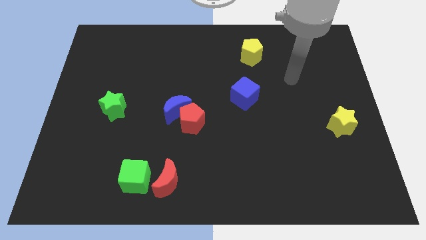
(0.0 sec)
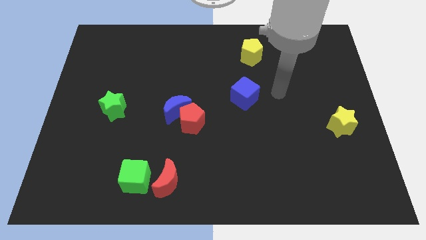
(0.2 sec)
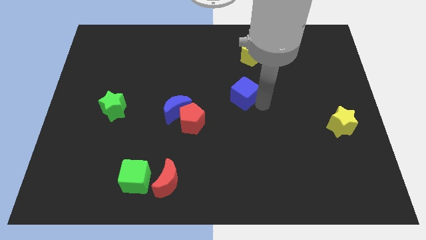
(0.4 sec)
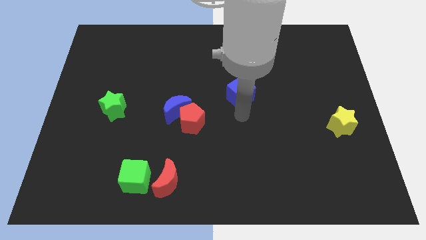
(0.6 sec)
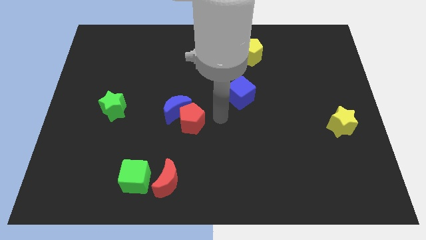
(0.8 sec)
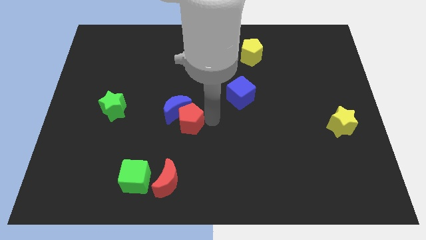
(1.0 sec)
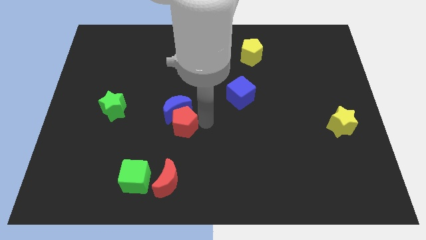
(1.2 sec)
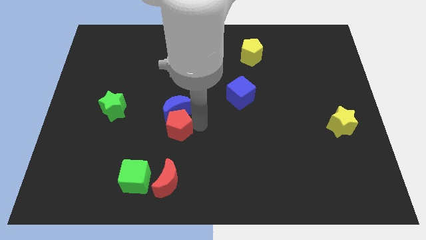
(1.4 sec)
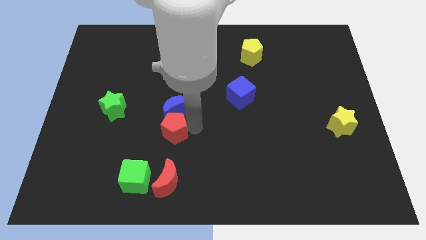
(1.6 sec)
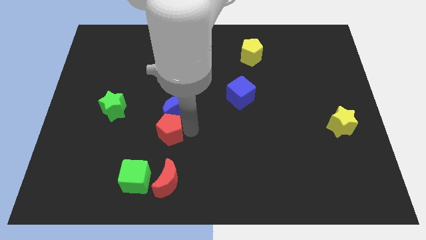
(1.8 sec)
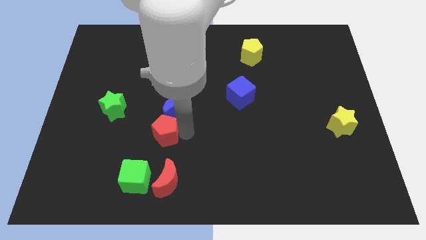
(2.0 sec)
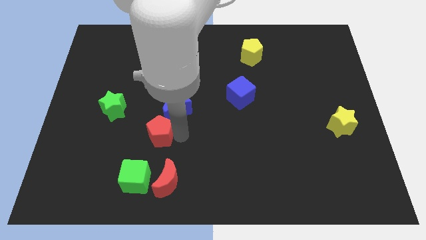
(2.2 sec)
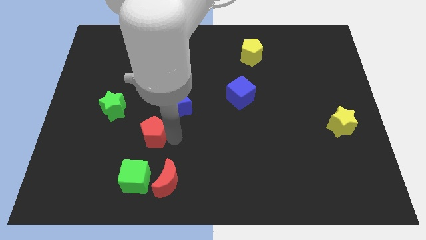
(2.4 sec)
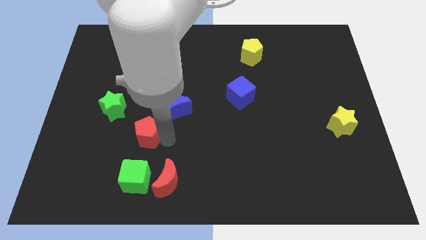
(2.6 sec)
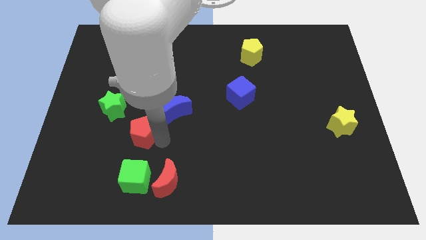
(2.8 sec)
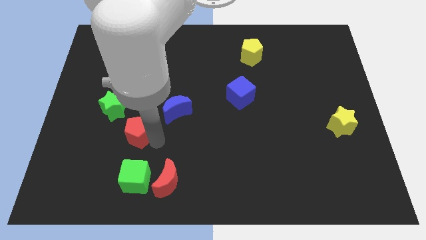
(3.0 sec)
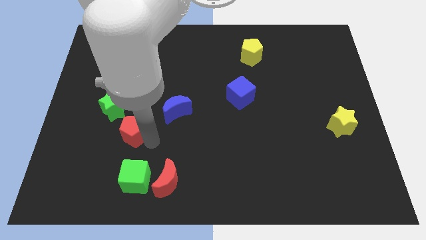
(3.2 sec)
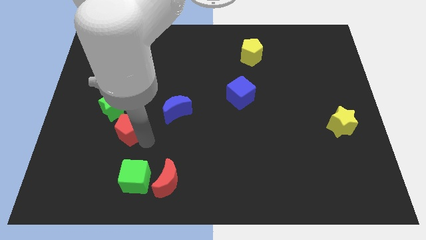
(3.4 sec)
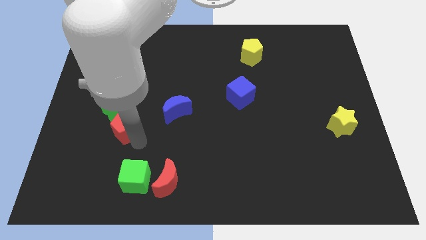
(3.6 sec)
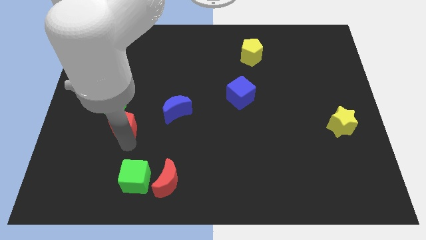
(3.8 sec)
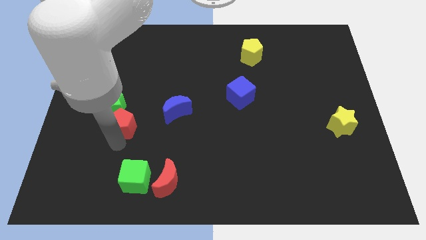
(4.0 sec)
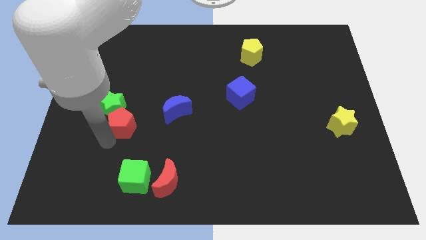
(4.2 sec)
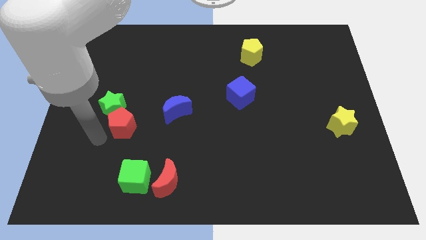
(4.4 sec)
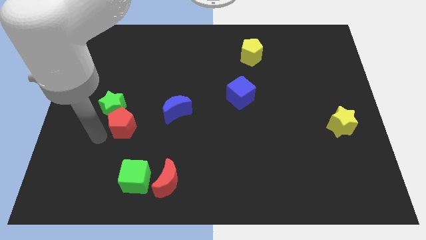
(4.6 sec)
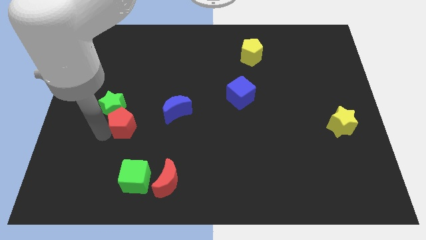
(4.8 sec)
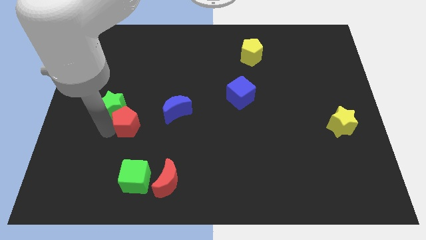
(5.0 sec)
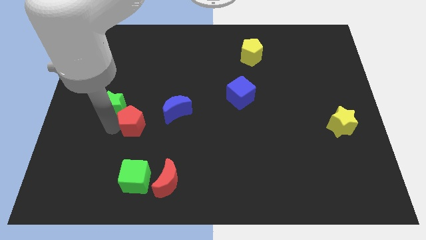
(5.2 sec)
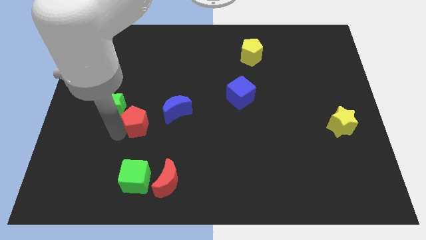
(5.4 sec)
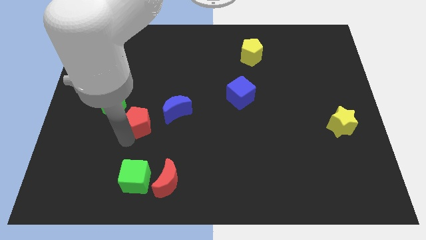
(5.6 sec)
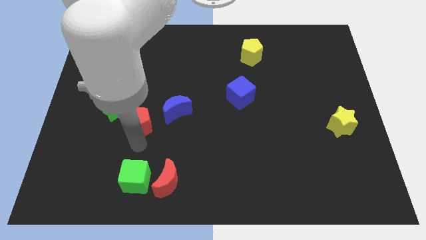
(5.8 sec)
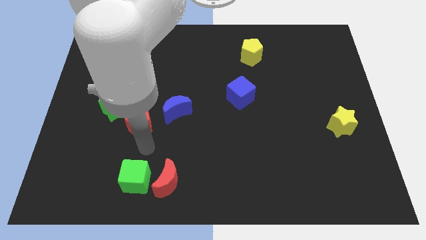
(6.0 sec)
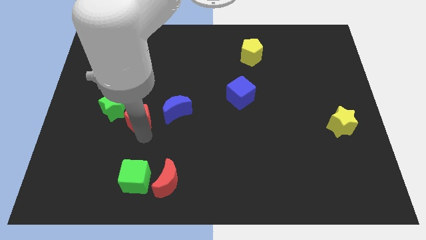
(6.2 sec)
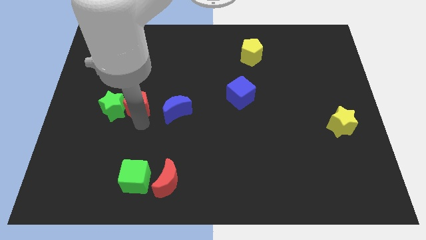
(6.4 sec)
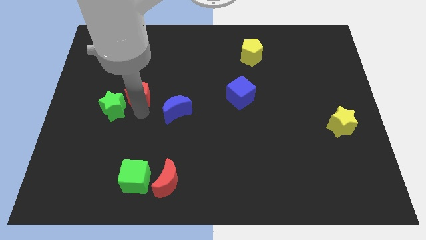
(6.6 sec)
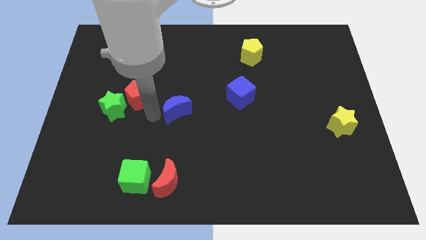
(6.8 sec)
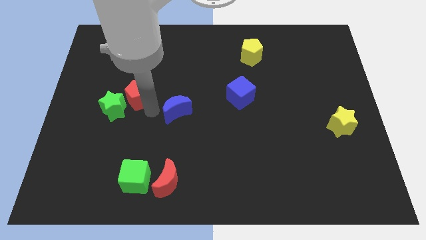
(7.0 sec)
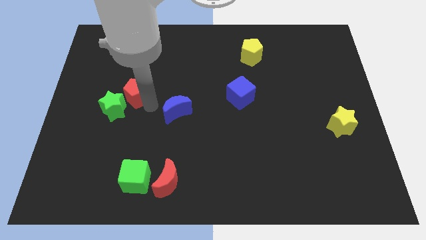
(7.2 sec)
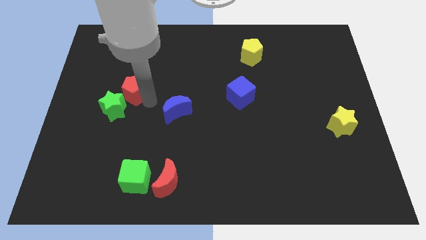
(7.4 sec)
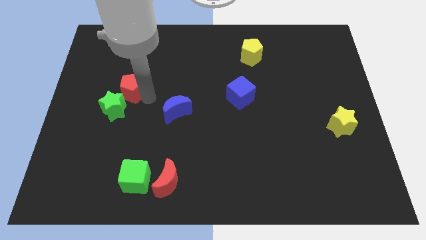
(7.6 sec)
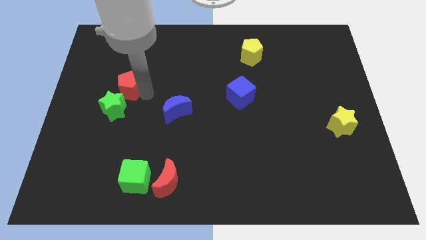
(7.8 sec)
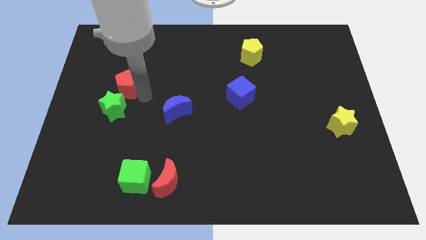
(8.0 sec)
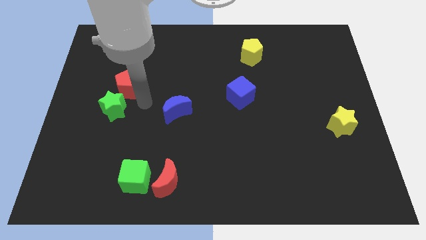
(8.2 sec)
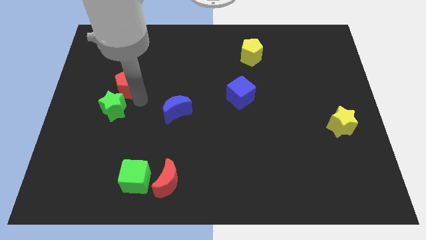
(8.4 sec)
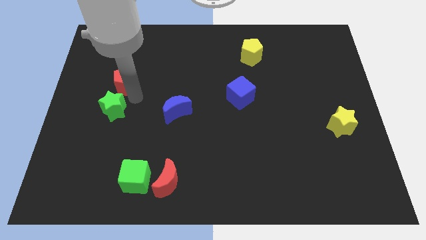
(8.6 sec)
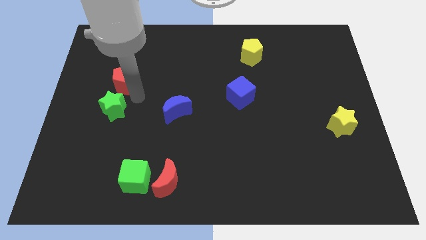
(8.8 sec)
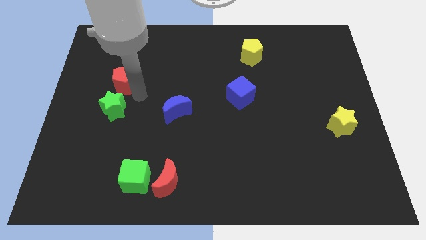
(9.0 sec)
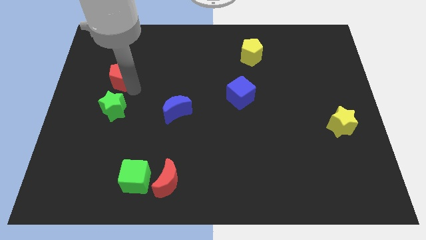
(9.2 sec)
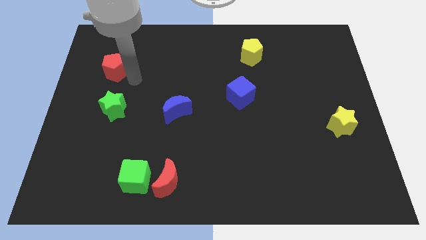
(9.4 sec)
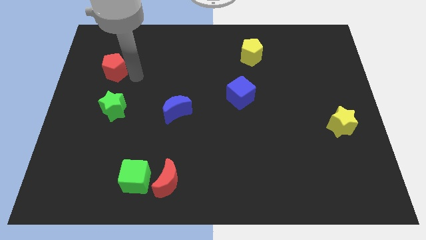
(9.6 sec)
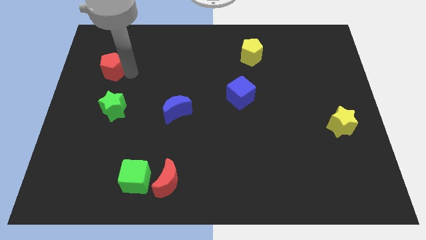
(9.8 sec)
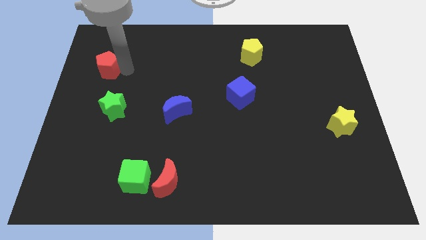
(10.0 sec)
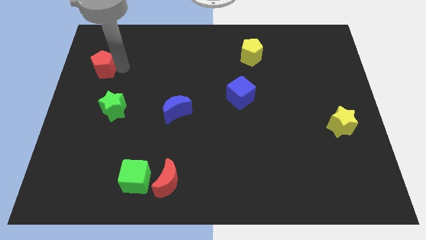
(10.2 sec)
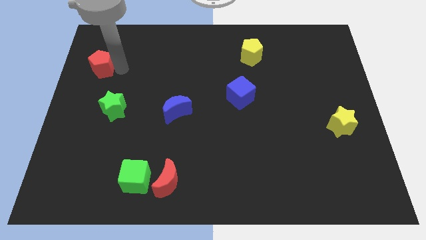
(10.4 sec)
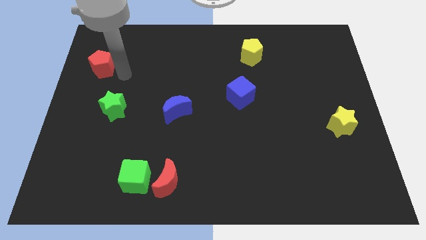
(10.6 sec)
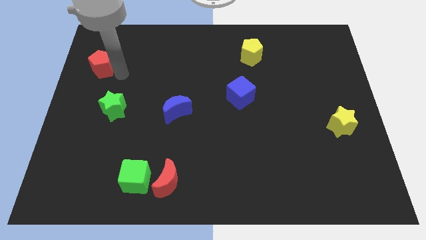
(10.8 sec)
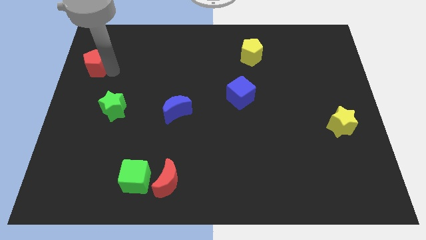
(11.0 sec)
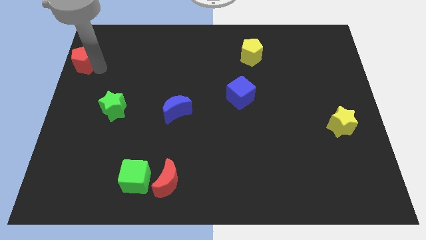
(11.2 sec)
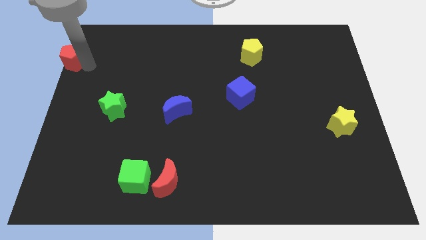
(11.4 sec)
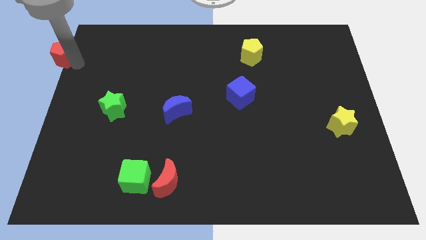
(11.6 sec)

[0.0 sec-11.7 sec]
move the red pentagon to the top left of the board

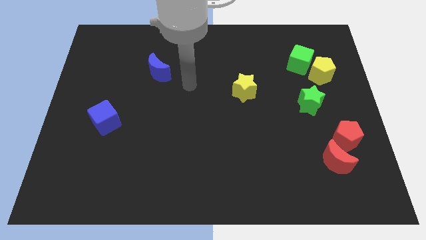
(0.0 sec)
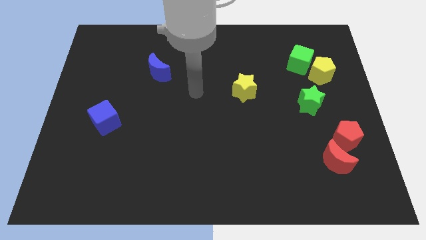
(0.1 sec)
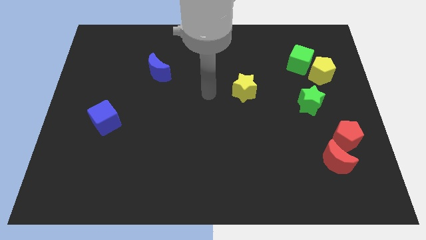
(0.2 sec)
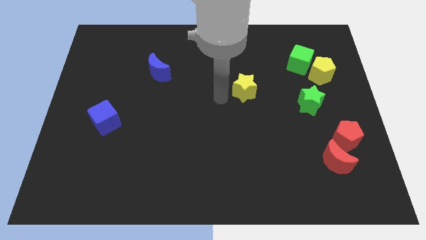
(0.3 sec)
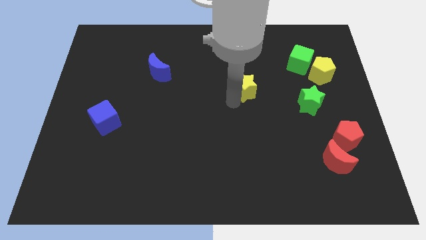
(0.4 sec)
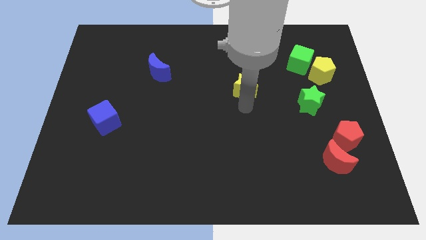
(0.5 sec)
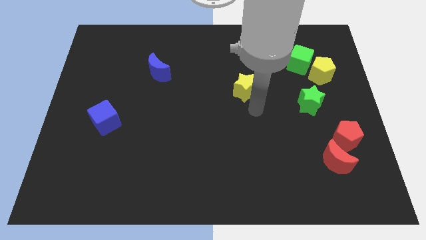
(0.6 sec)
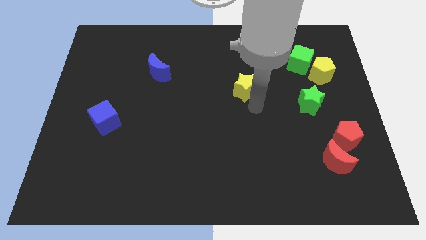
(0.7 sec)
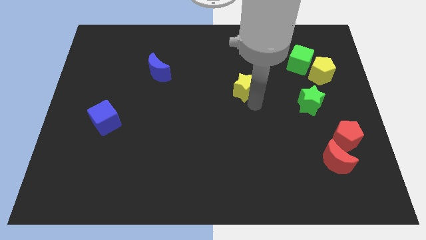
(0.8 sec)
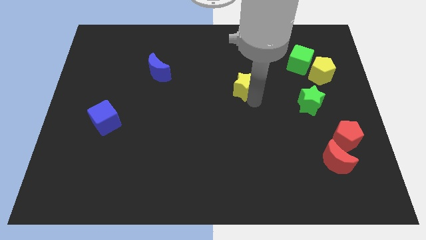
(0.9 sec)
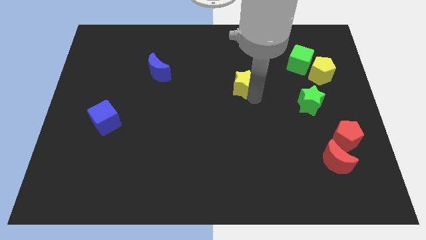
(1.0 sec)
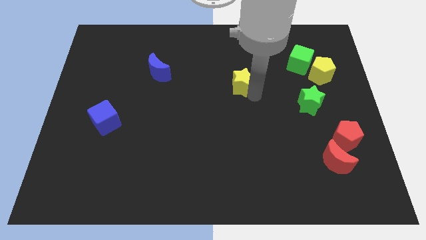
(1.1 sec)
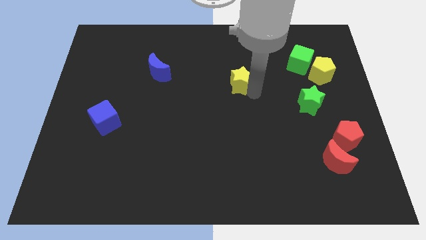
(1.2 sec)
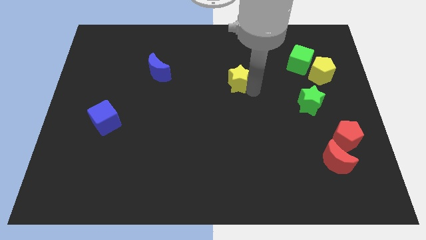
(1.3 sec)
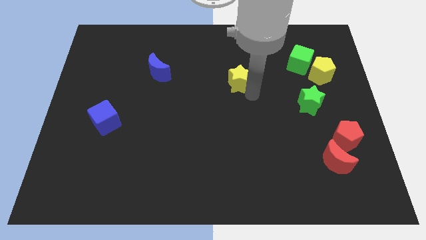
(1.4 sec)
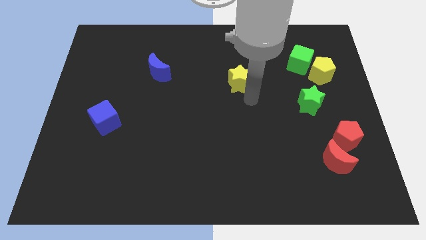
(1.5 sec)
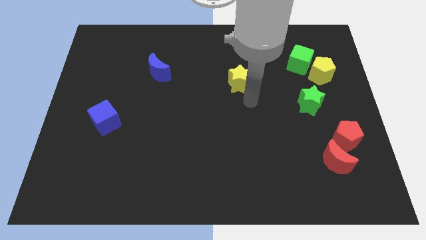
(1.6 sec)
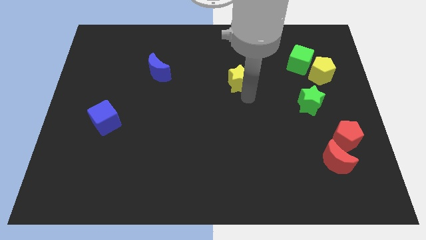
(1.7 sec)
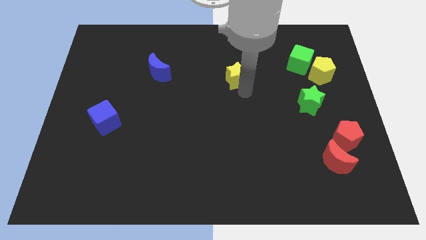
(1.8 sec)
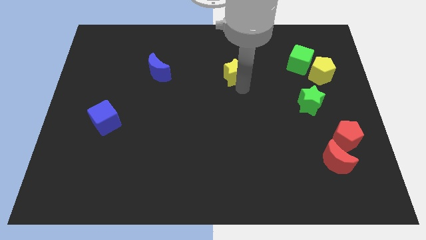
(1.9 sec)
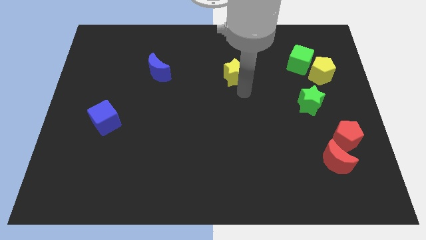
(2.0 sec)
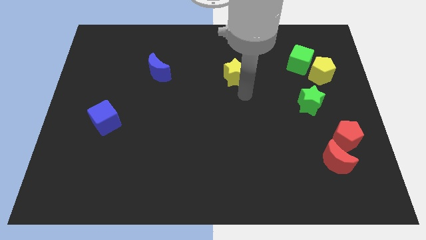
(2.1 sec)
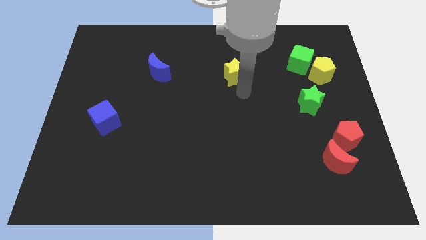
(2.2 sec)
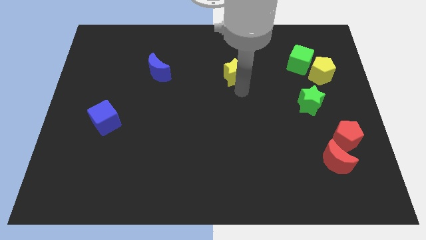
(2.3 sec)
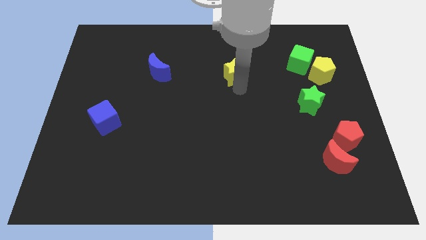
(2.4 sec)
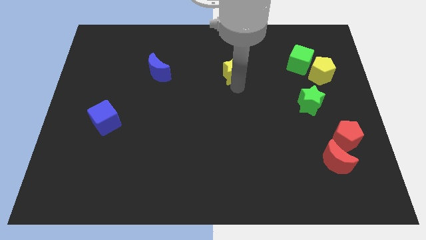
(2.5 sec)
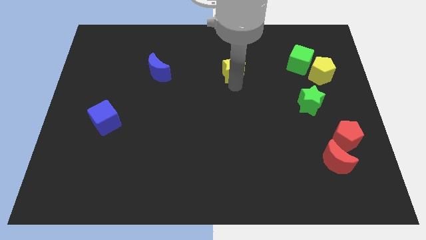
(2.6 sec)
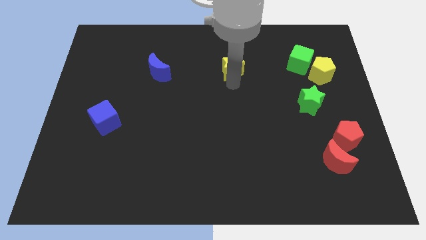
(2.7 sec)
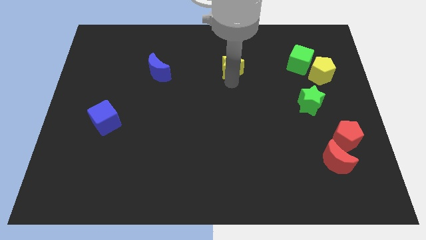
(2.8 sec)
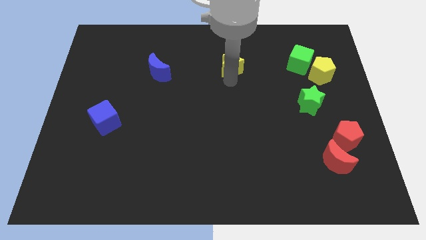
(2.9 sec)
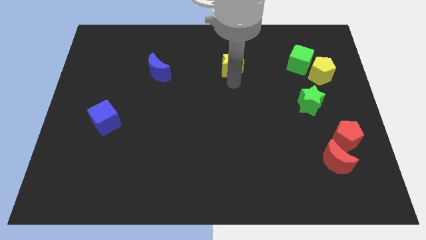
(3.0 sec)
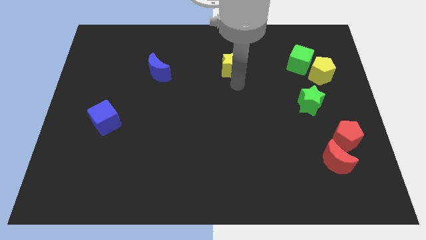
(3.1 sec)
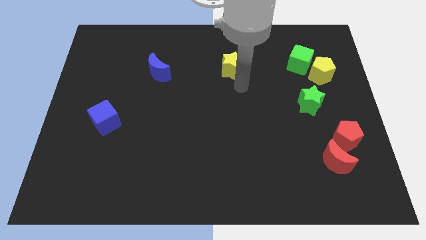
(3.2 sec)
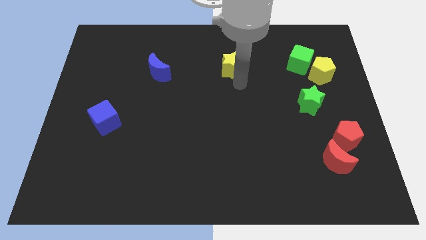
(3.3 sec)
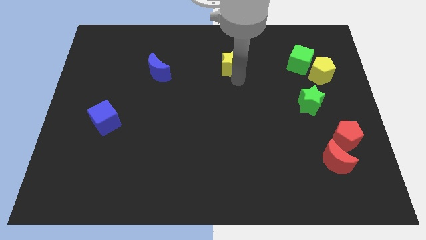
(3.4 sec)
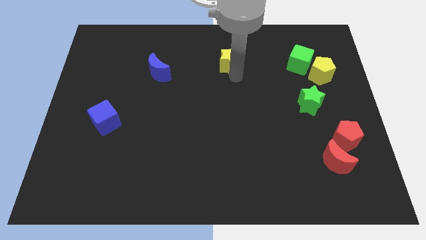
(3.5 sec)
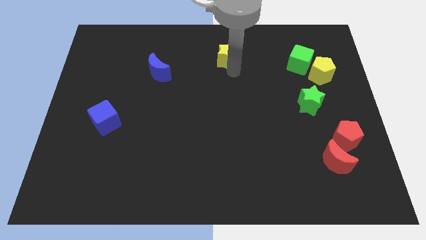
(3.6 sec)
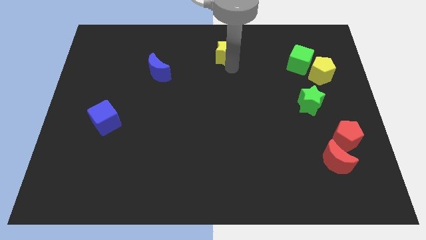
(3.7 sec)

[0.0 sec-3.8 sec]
push the yellow star to the top
